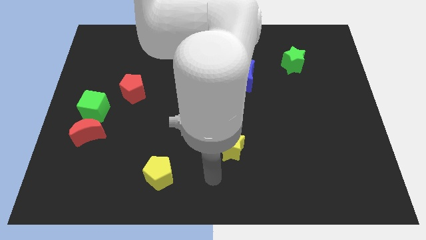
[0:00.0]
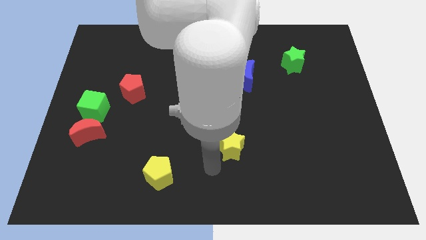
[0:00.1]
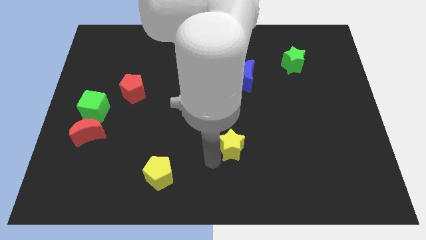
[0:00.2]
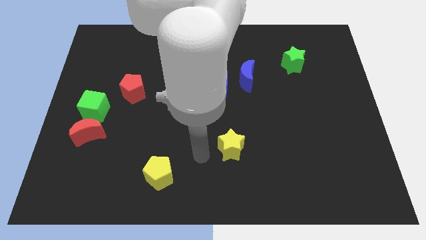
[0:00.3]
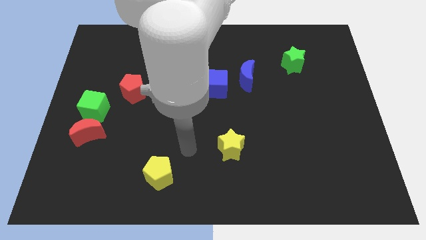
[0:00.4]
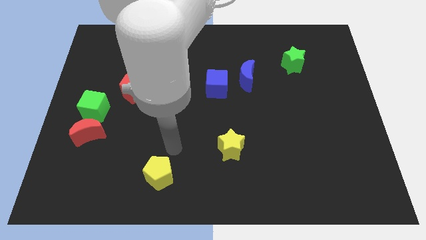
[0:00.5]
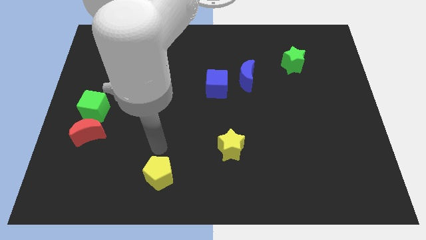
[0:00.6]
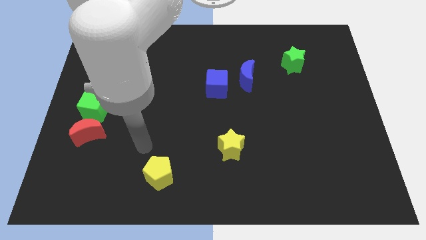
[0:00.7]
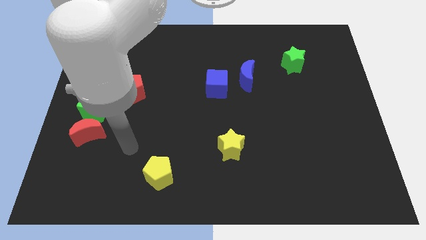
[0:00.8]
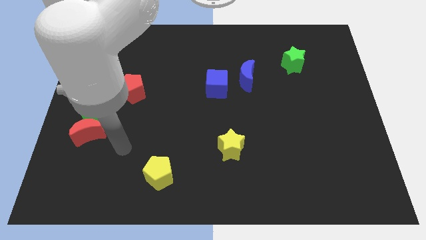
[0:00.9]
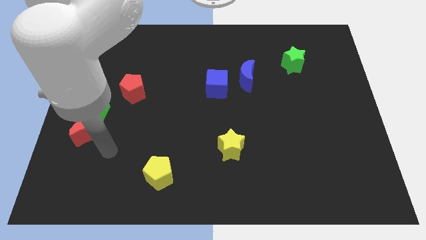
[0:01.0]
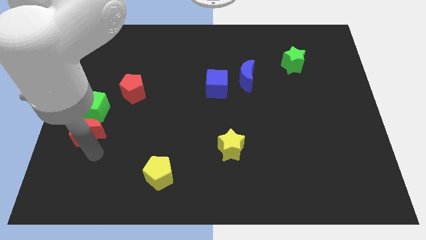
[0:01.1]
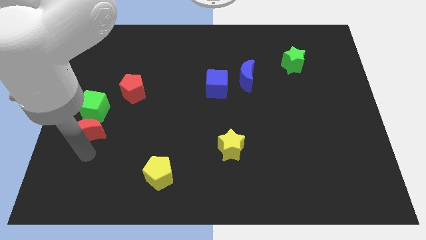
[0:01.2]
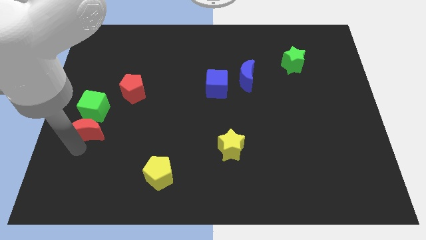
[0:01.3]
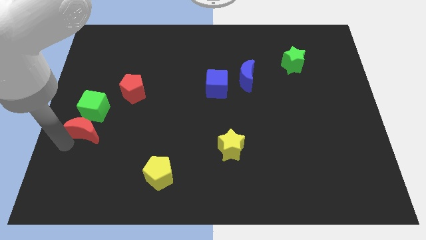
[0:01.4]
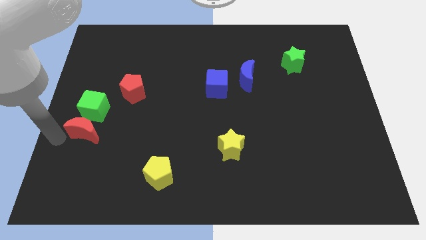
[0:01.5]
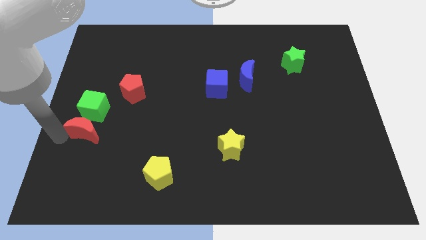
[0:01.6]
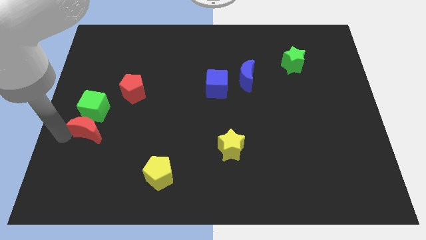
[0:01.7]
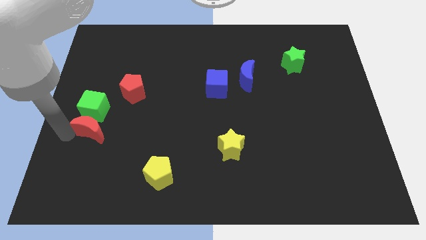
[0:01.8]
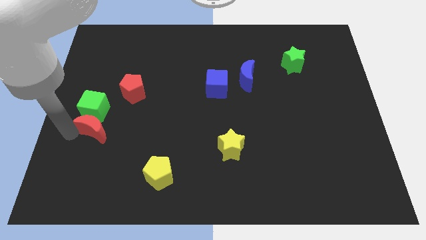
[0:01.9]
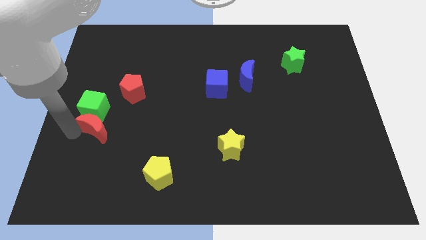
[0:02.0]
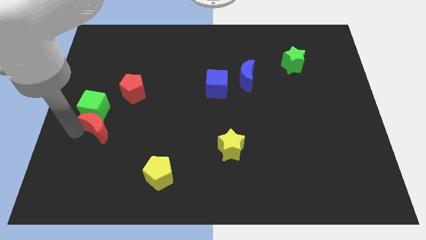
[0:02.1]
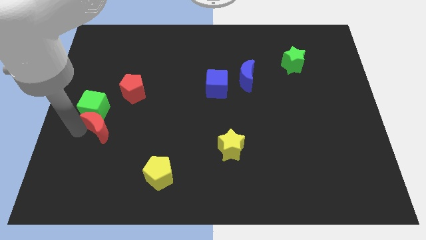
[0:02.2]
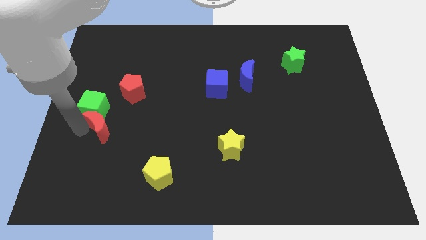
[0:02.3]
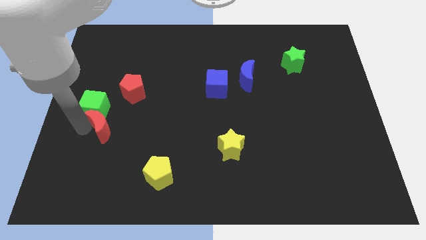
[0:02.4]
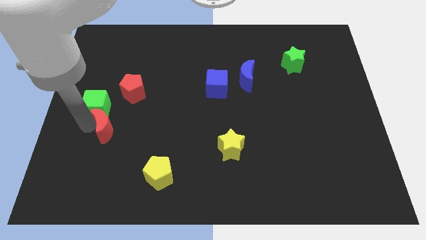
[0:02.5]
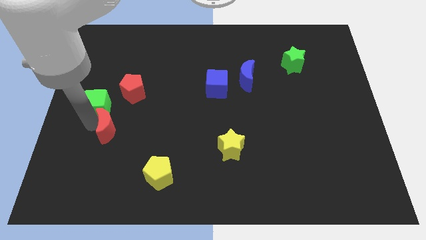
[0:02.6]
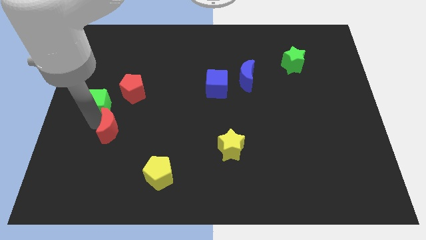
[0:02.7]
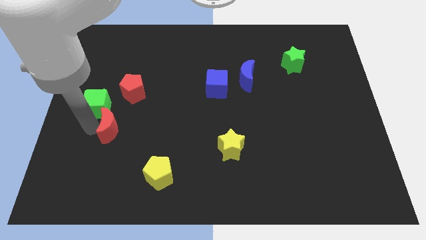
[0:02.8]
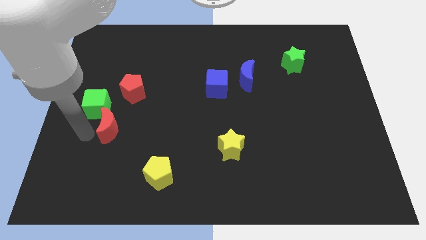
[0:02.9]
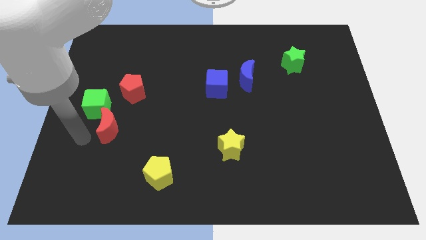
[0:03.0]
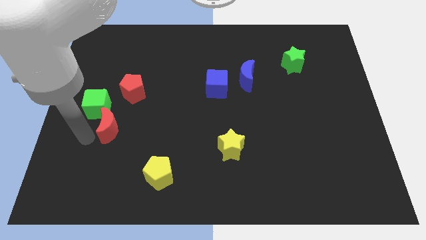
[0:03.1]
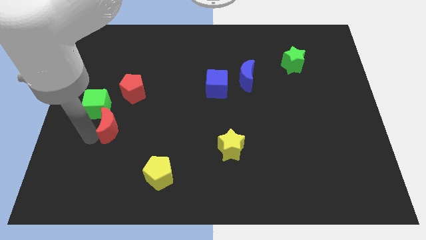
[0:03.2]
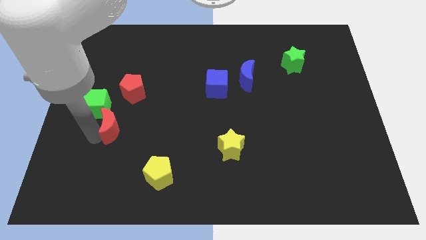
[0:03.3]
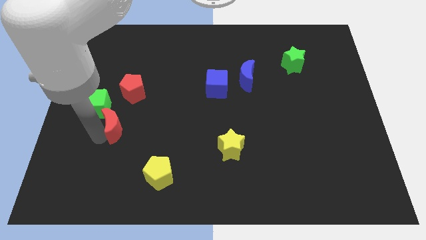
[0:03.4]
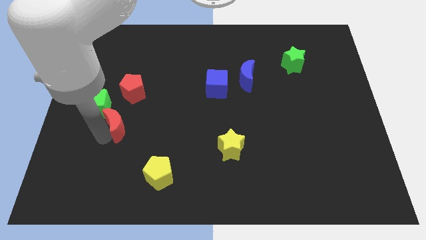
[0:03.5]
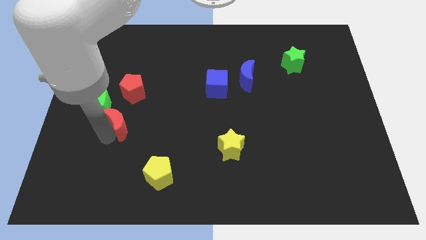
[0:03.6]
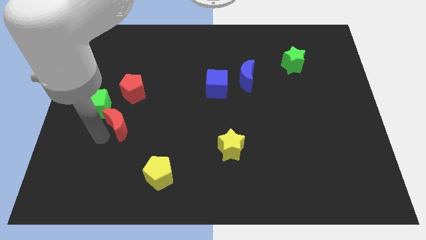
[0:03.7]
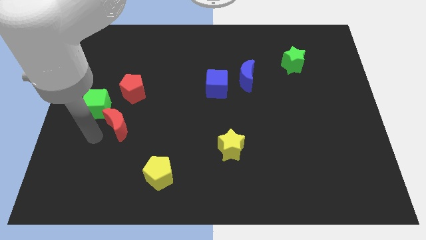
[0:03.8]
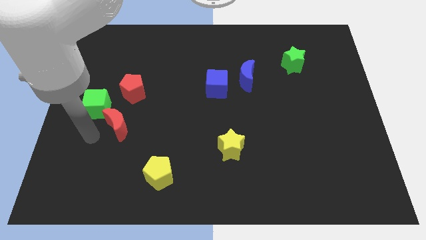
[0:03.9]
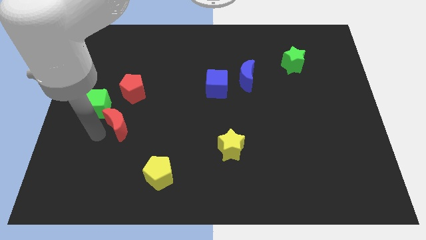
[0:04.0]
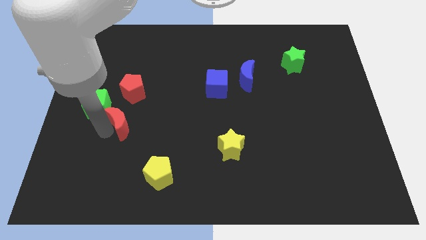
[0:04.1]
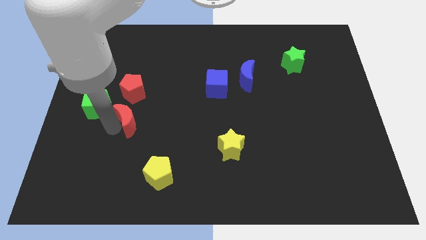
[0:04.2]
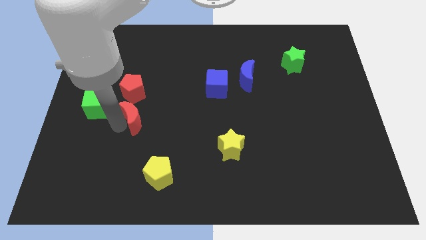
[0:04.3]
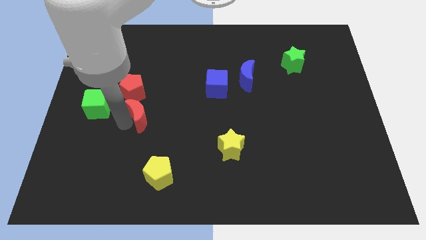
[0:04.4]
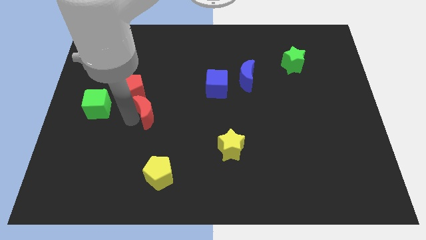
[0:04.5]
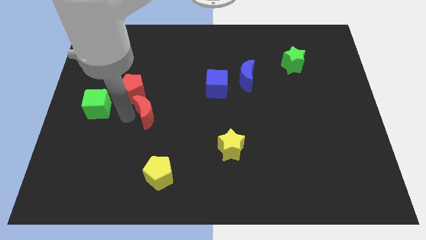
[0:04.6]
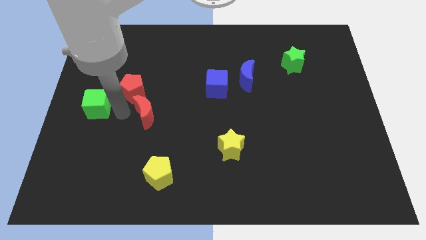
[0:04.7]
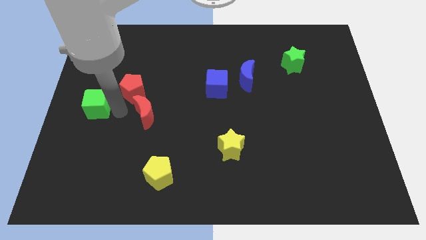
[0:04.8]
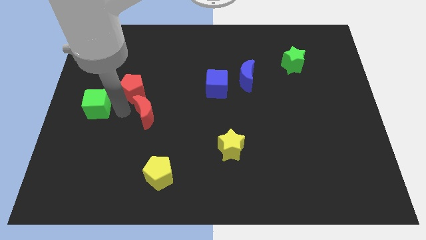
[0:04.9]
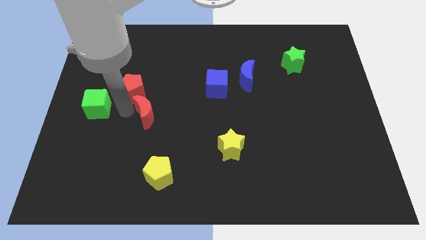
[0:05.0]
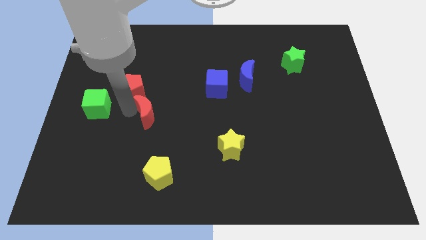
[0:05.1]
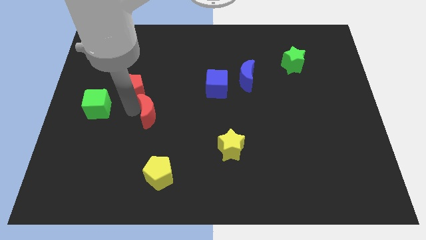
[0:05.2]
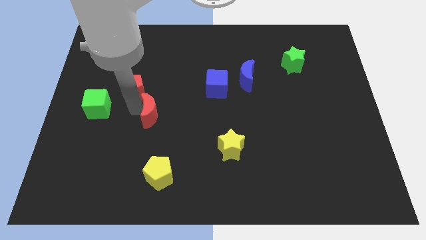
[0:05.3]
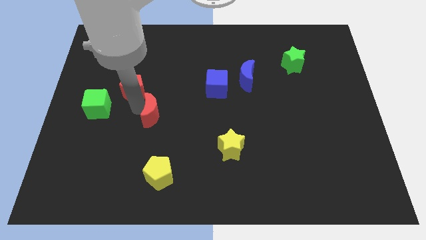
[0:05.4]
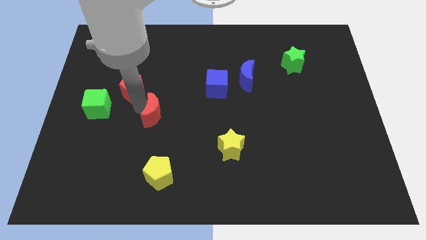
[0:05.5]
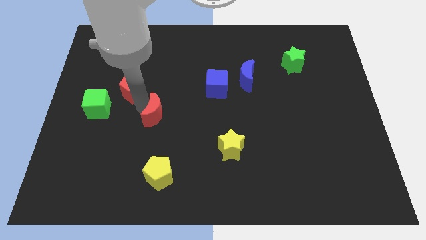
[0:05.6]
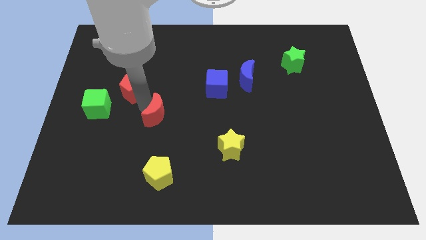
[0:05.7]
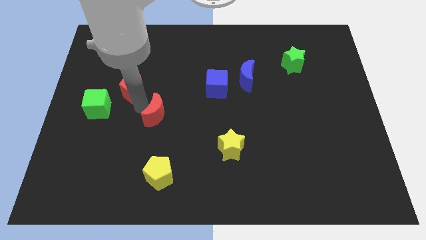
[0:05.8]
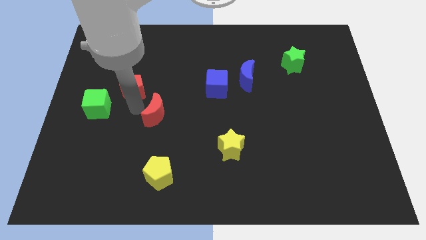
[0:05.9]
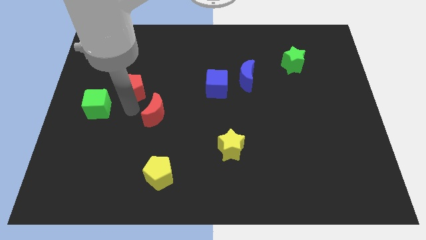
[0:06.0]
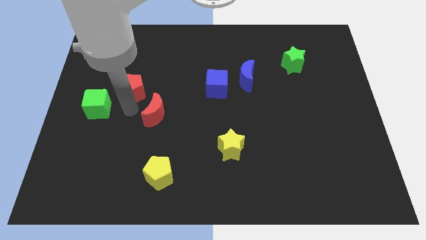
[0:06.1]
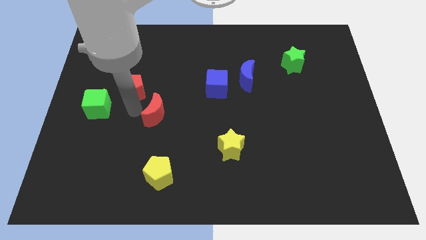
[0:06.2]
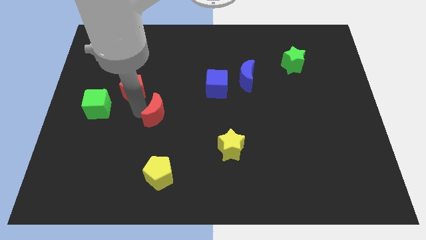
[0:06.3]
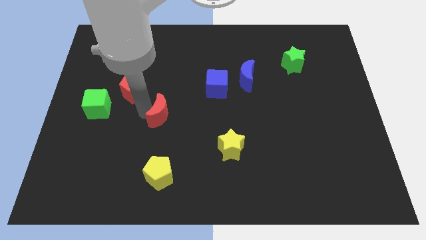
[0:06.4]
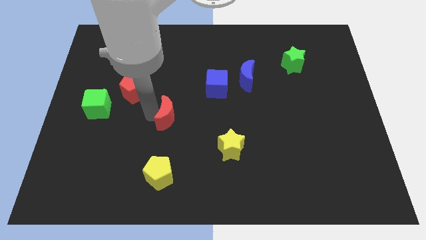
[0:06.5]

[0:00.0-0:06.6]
move the red moon to the center of the board
